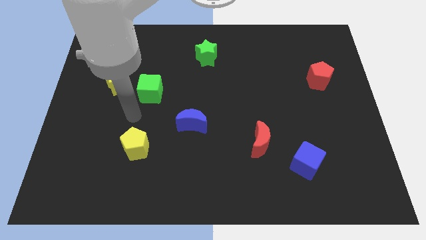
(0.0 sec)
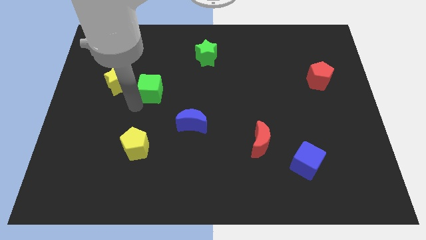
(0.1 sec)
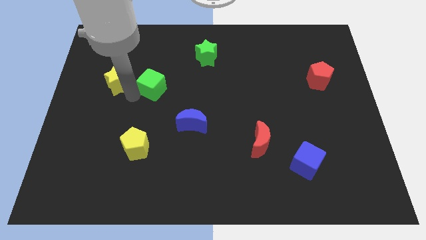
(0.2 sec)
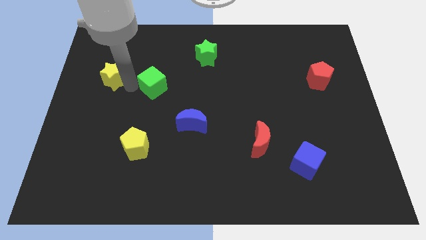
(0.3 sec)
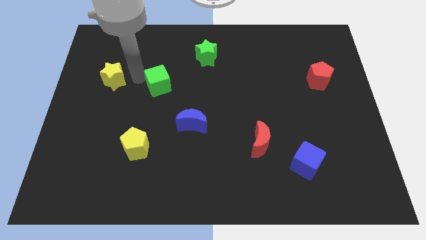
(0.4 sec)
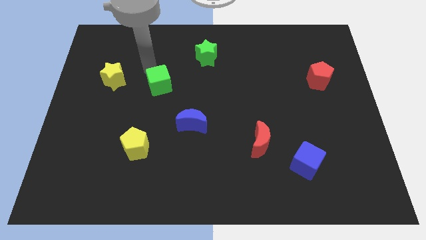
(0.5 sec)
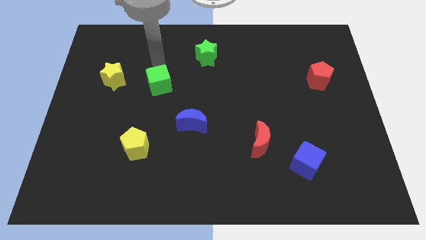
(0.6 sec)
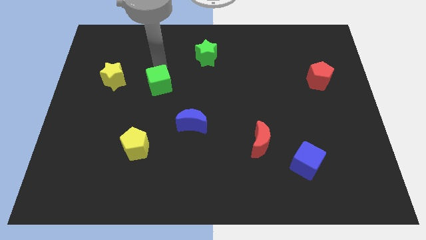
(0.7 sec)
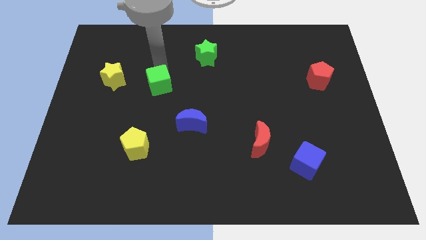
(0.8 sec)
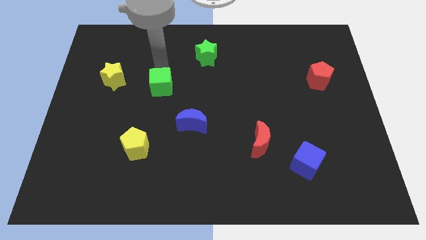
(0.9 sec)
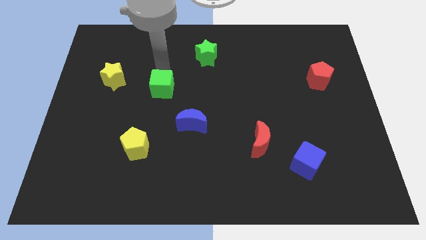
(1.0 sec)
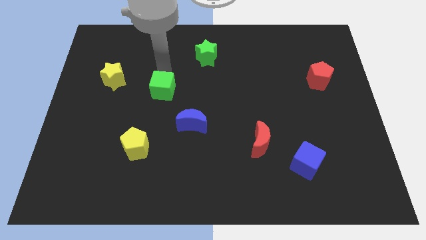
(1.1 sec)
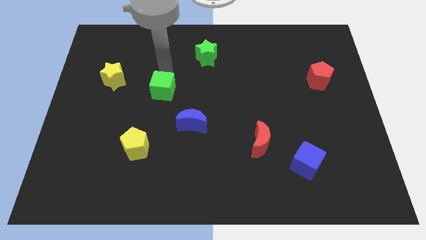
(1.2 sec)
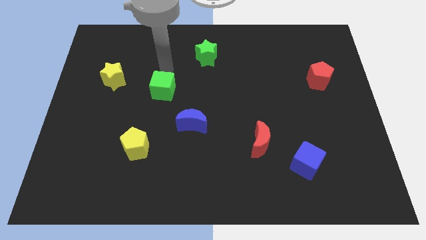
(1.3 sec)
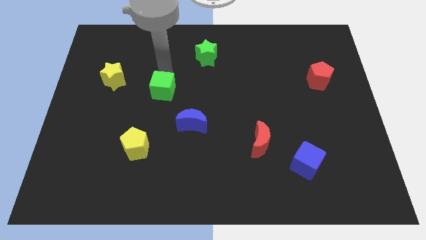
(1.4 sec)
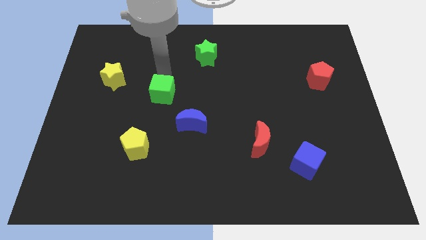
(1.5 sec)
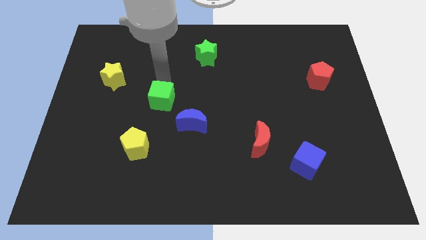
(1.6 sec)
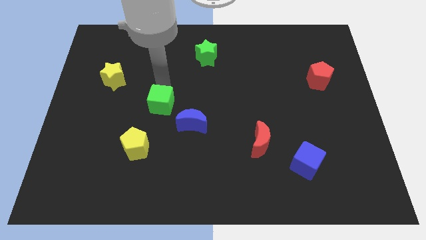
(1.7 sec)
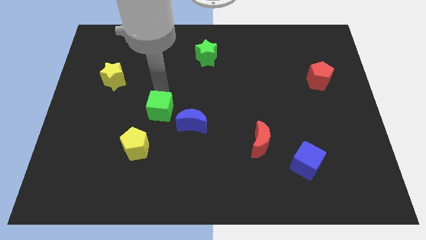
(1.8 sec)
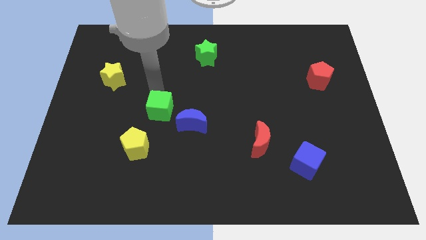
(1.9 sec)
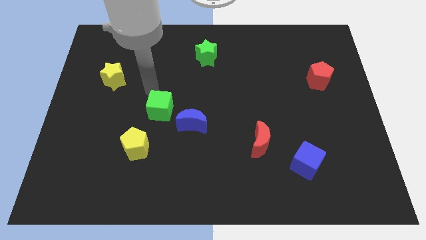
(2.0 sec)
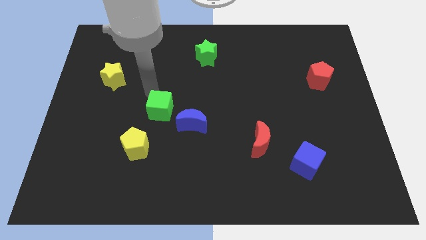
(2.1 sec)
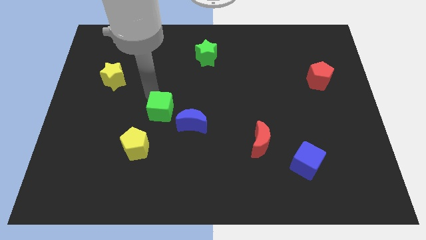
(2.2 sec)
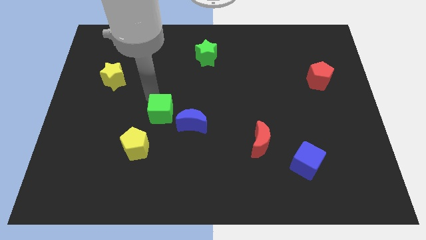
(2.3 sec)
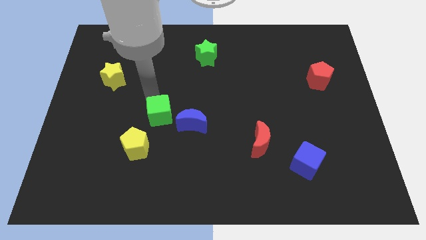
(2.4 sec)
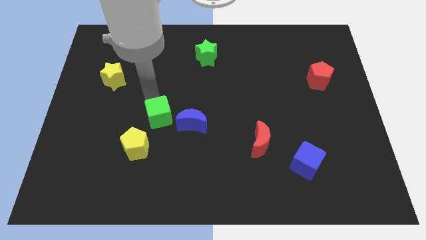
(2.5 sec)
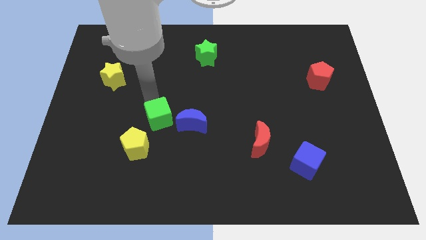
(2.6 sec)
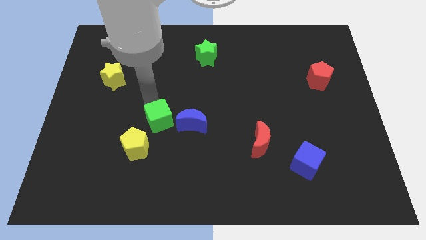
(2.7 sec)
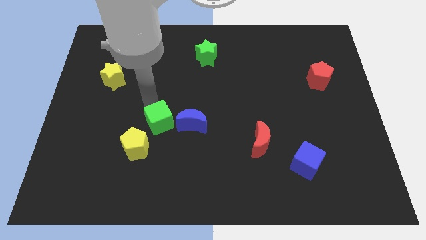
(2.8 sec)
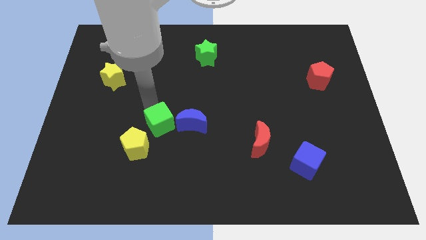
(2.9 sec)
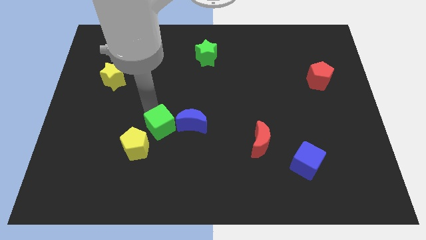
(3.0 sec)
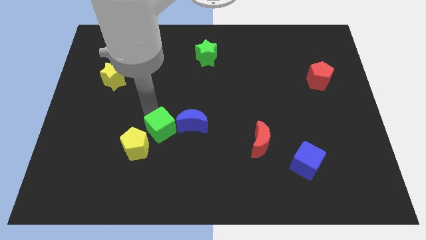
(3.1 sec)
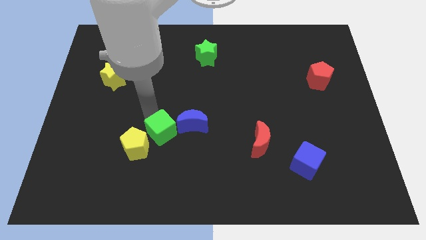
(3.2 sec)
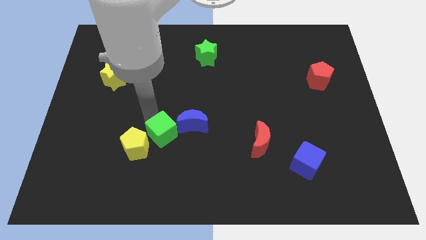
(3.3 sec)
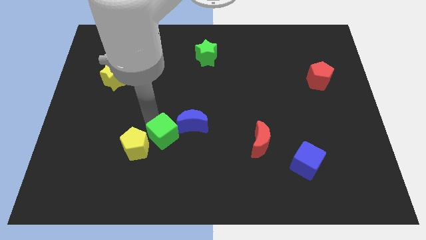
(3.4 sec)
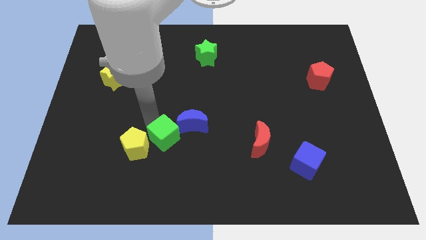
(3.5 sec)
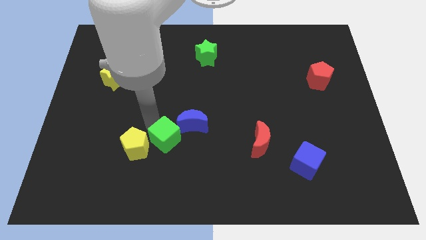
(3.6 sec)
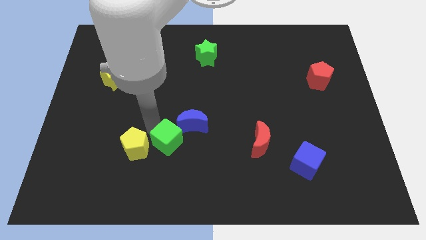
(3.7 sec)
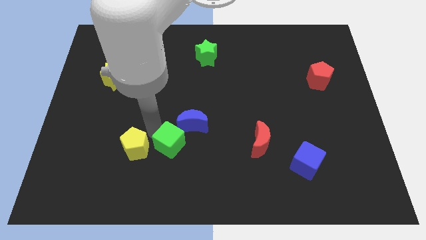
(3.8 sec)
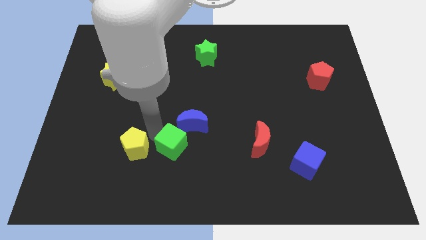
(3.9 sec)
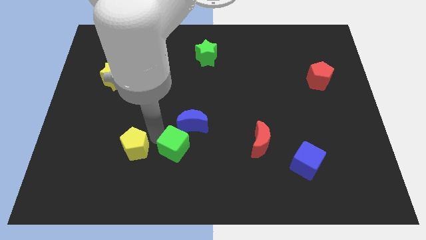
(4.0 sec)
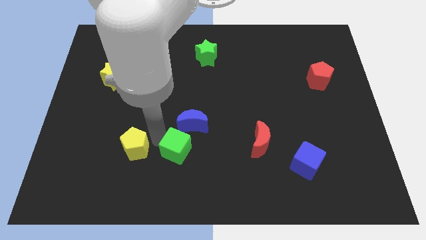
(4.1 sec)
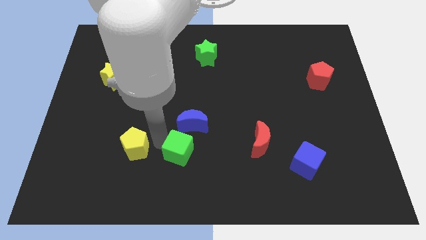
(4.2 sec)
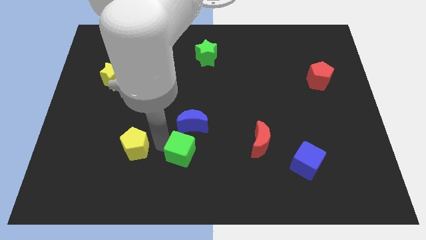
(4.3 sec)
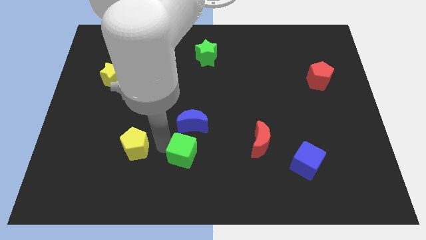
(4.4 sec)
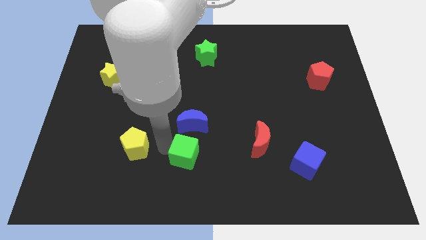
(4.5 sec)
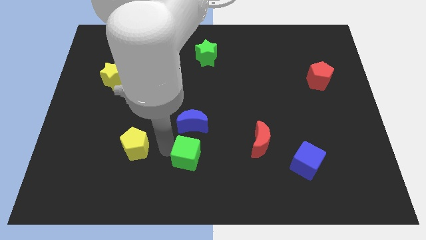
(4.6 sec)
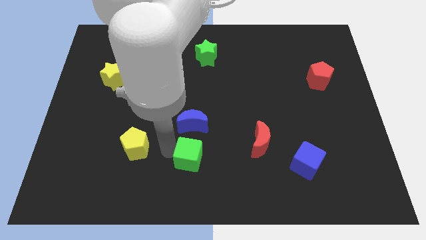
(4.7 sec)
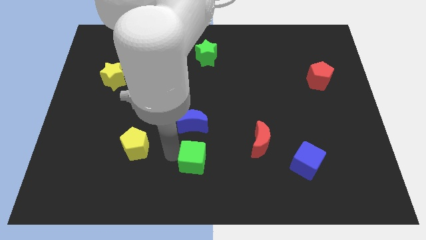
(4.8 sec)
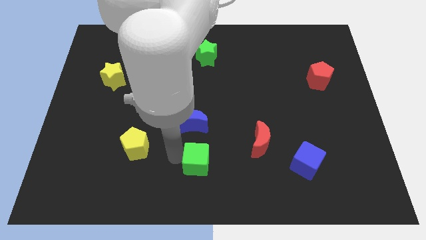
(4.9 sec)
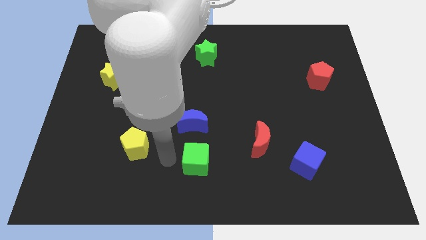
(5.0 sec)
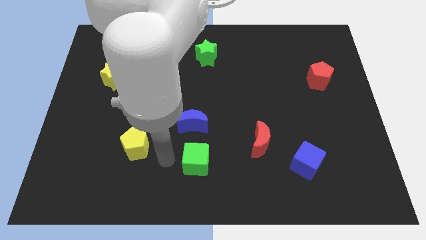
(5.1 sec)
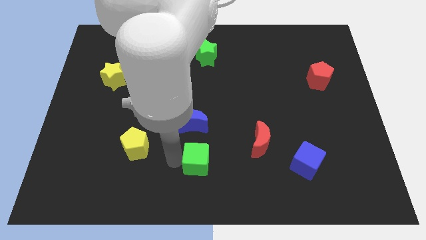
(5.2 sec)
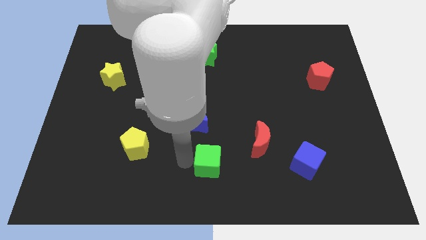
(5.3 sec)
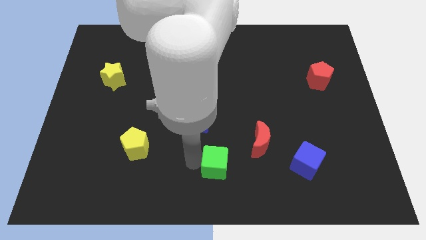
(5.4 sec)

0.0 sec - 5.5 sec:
push the green cube to the bottom left side of the red moon

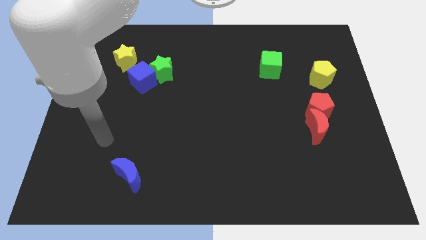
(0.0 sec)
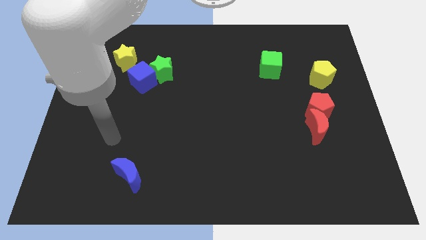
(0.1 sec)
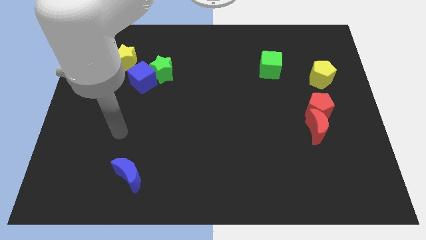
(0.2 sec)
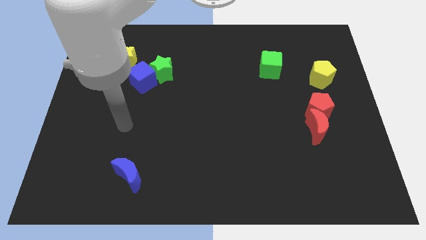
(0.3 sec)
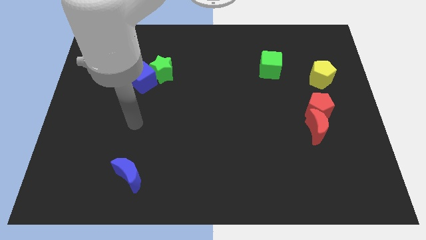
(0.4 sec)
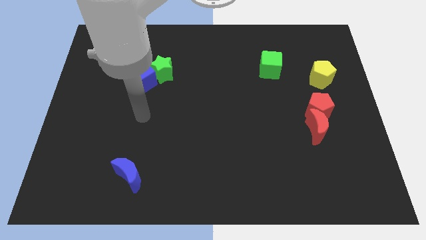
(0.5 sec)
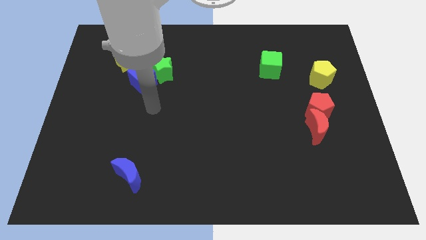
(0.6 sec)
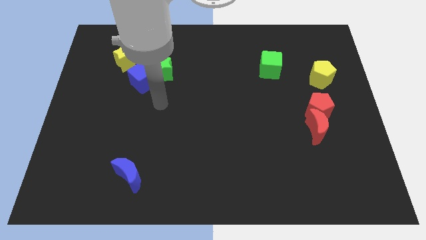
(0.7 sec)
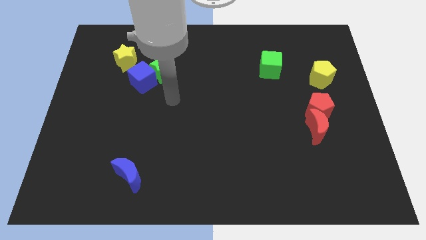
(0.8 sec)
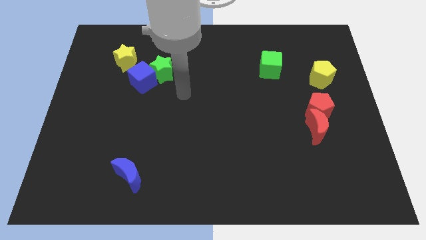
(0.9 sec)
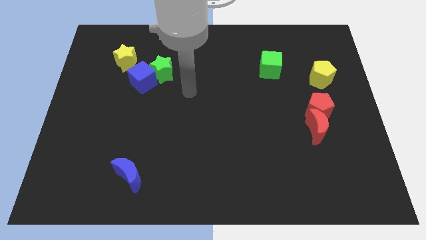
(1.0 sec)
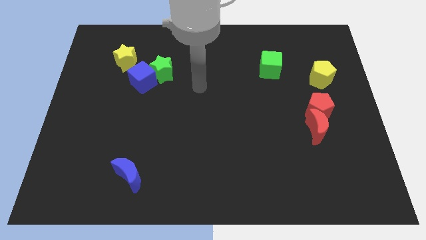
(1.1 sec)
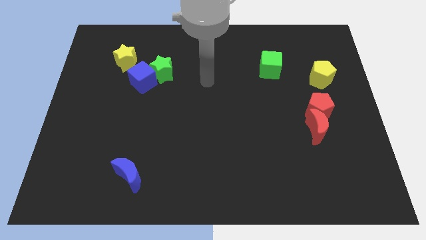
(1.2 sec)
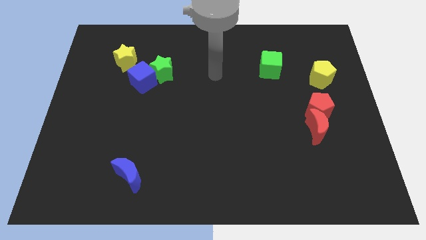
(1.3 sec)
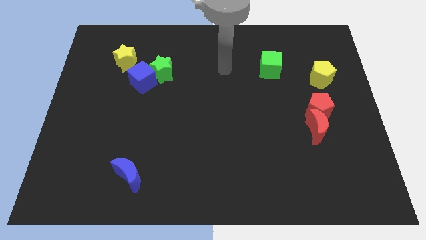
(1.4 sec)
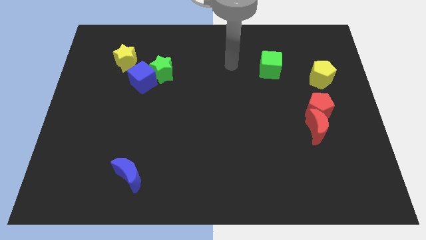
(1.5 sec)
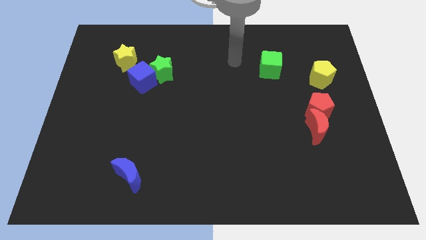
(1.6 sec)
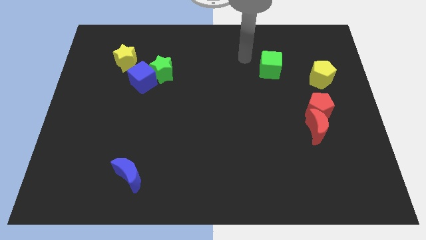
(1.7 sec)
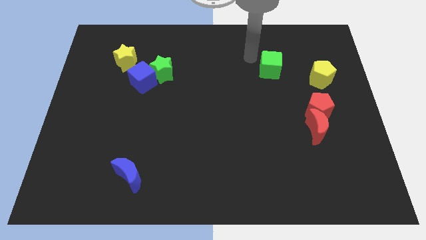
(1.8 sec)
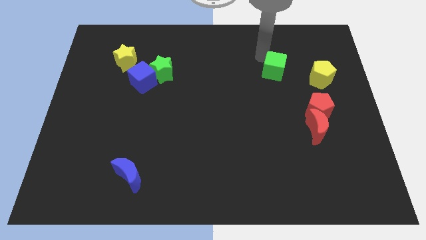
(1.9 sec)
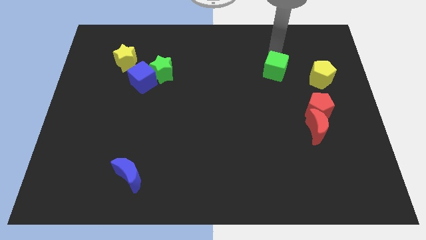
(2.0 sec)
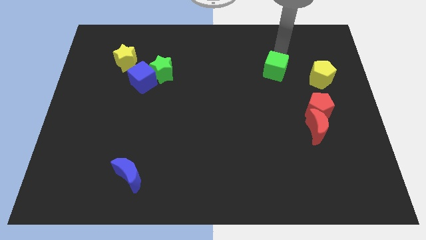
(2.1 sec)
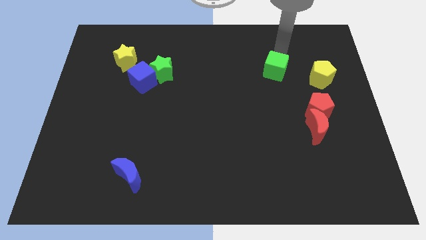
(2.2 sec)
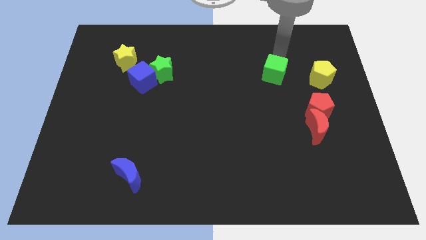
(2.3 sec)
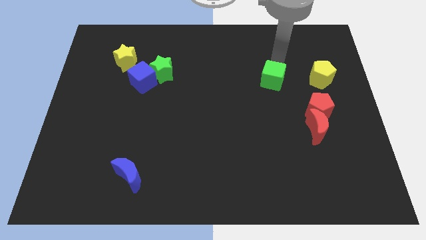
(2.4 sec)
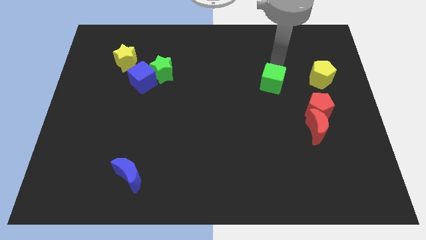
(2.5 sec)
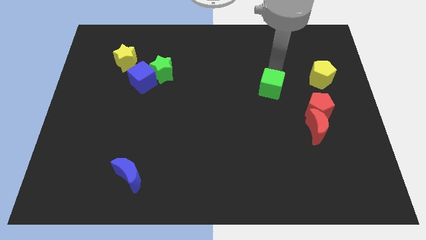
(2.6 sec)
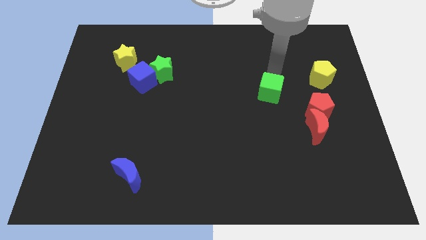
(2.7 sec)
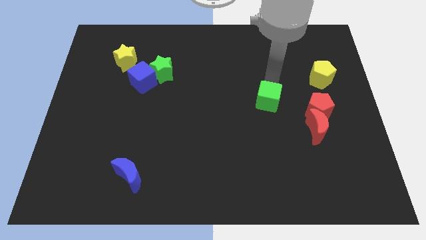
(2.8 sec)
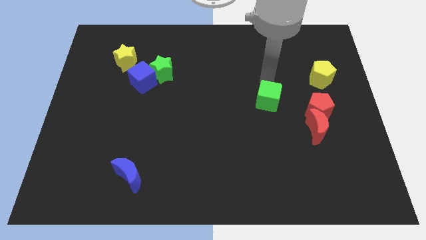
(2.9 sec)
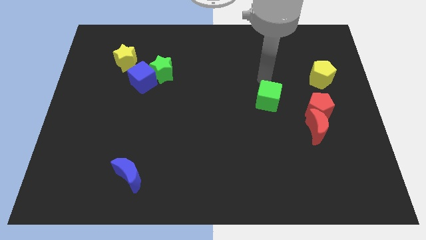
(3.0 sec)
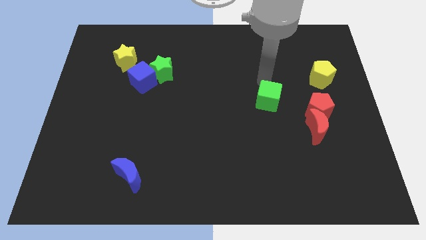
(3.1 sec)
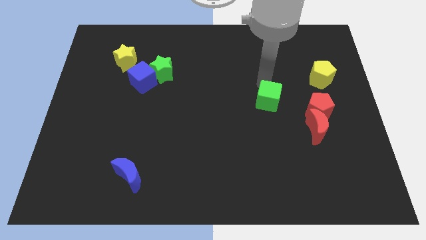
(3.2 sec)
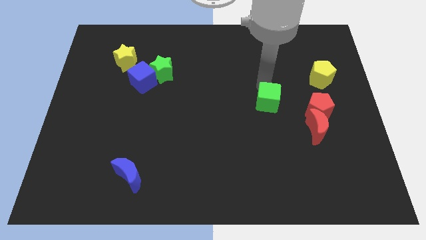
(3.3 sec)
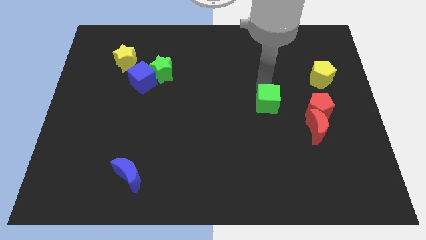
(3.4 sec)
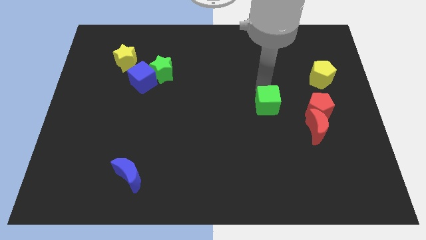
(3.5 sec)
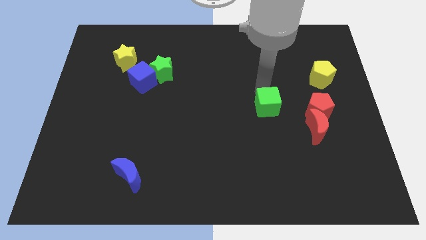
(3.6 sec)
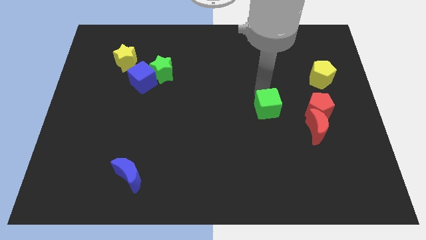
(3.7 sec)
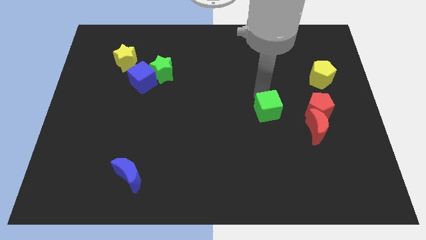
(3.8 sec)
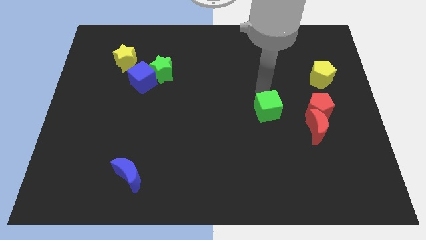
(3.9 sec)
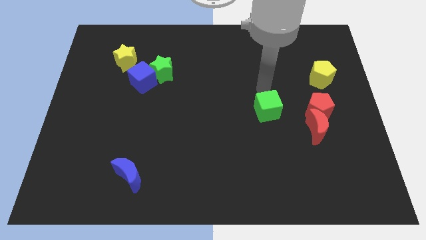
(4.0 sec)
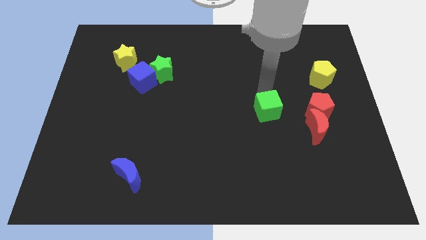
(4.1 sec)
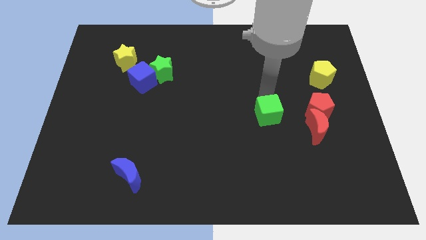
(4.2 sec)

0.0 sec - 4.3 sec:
move the green cube to the left side of the red moon
